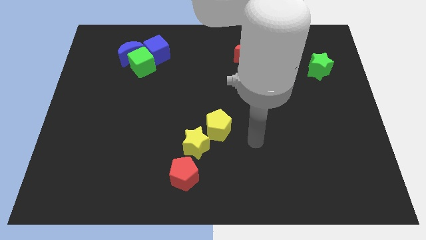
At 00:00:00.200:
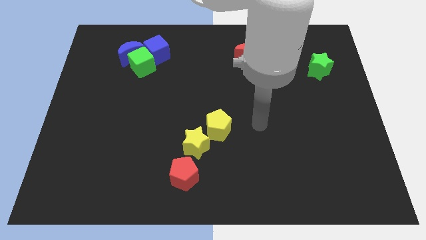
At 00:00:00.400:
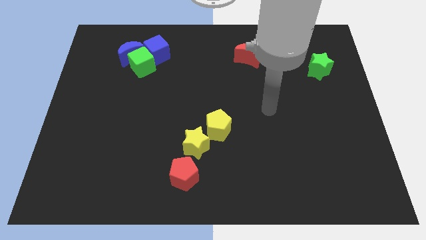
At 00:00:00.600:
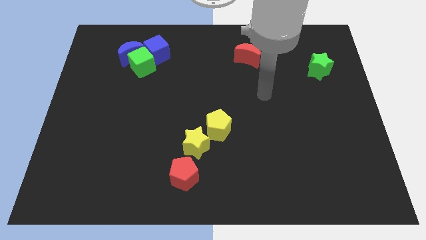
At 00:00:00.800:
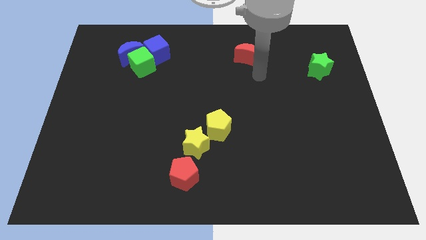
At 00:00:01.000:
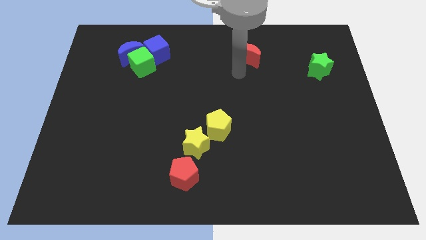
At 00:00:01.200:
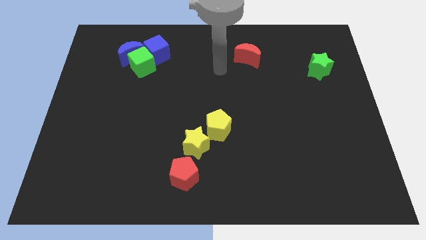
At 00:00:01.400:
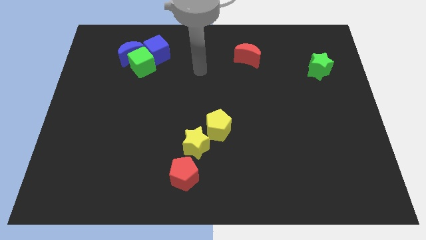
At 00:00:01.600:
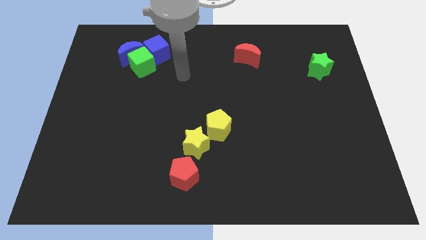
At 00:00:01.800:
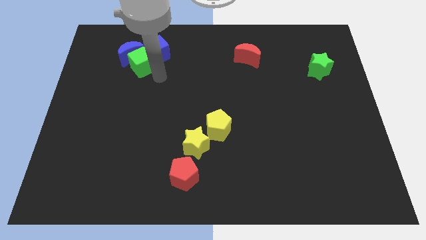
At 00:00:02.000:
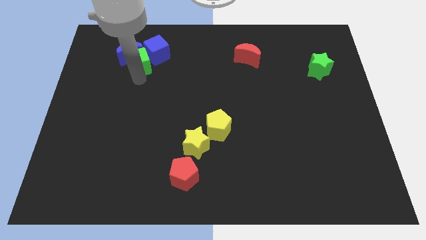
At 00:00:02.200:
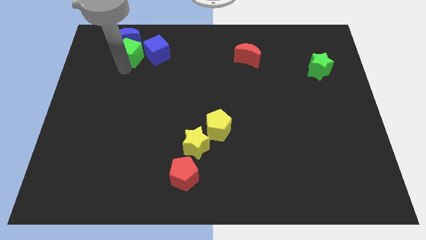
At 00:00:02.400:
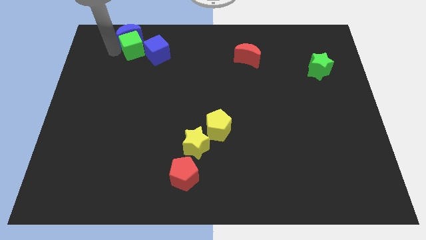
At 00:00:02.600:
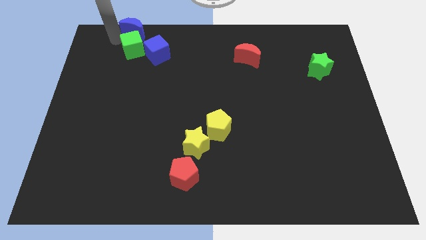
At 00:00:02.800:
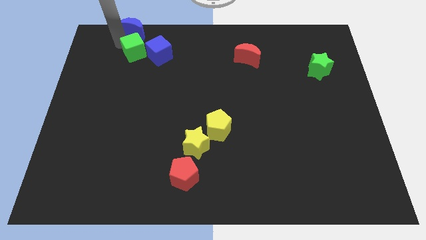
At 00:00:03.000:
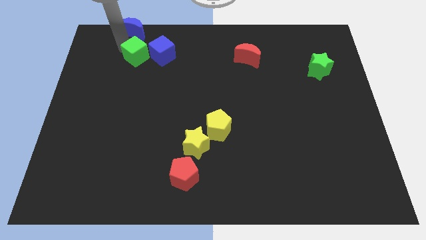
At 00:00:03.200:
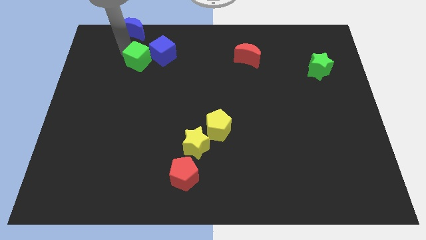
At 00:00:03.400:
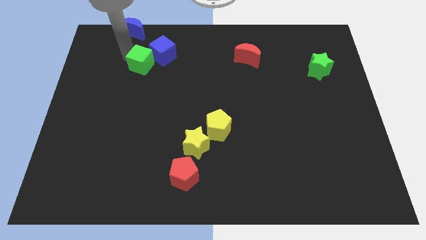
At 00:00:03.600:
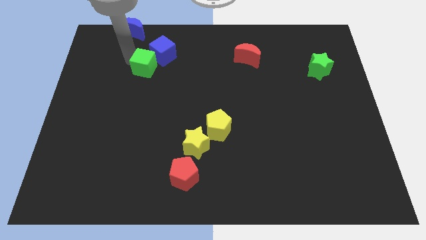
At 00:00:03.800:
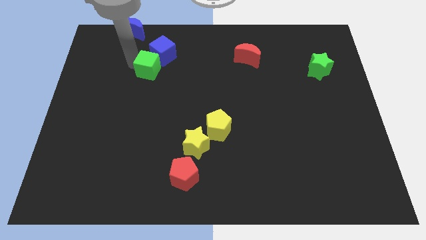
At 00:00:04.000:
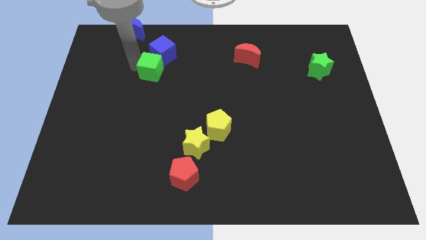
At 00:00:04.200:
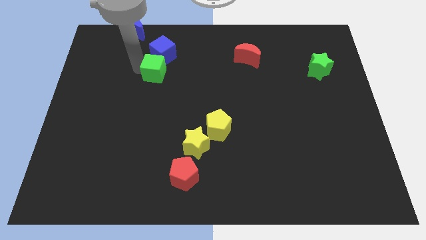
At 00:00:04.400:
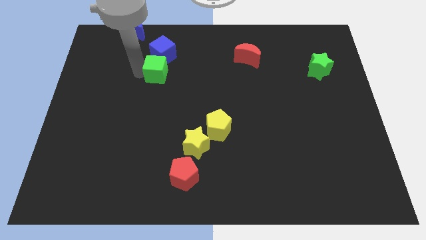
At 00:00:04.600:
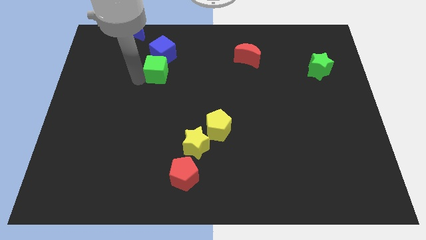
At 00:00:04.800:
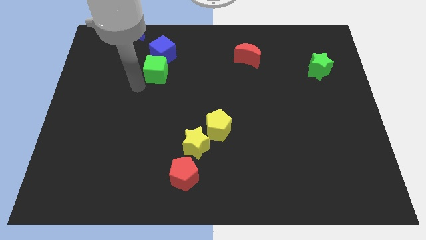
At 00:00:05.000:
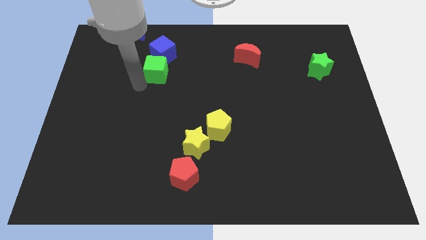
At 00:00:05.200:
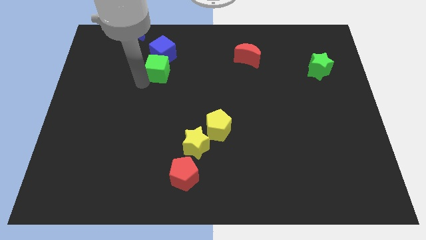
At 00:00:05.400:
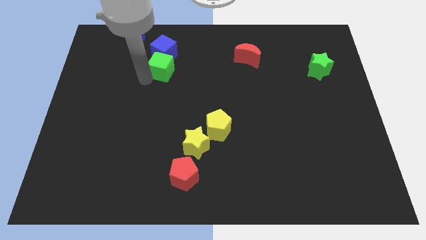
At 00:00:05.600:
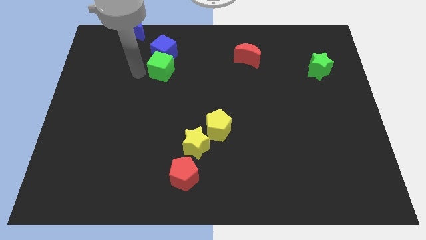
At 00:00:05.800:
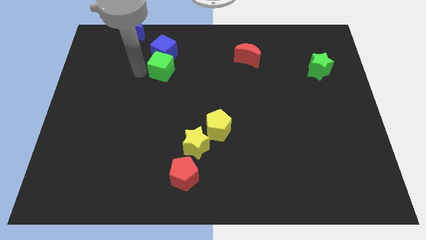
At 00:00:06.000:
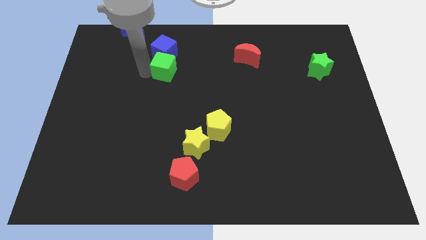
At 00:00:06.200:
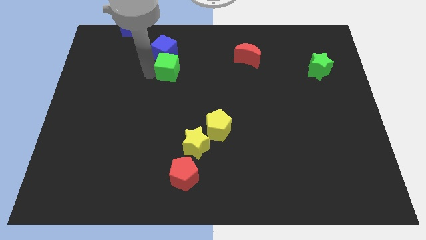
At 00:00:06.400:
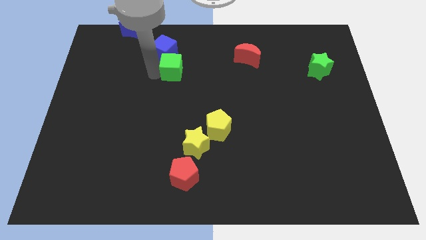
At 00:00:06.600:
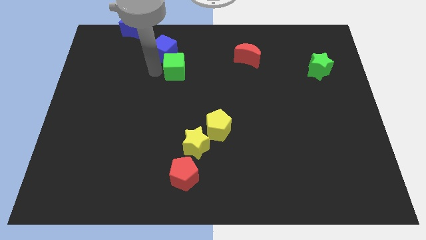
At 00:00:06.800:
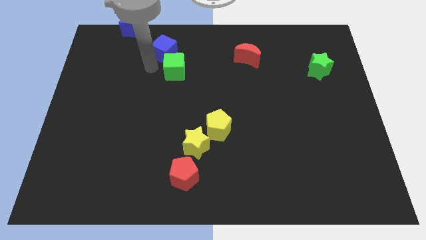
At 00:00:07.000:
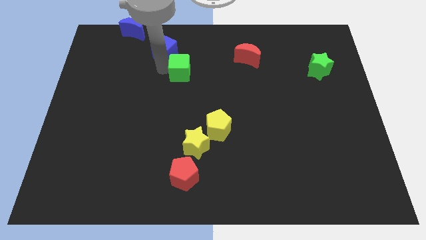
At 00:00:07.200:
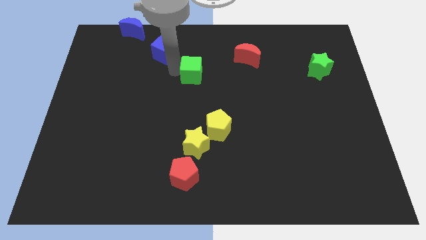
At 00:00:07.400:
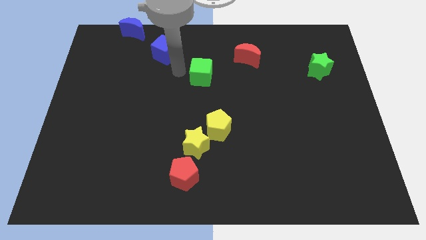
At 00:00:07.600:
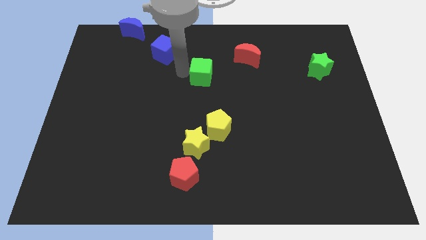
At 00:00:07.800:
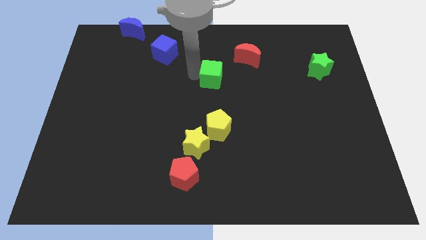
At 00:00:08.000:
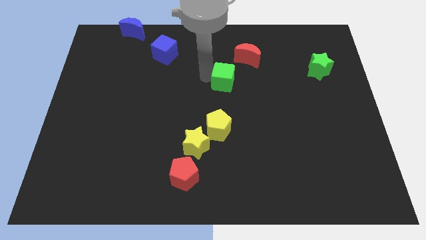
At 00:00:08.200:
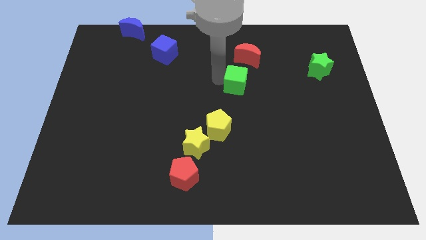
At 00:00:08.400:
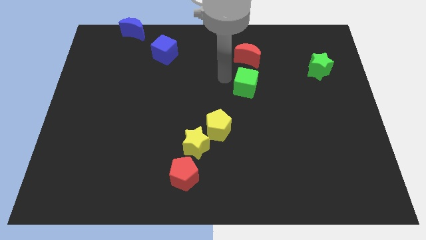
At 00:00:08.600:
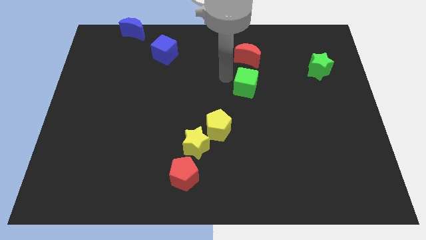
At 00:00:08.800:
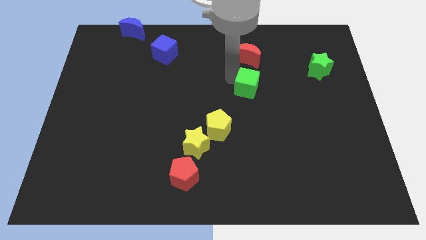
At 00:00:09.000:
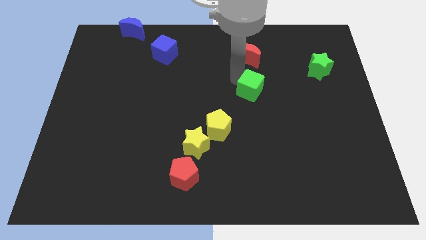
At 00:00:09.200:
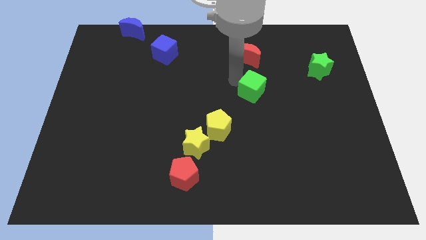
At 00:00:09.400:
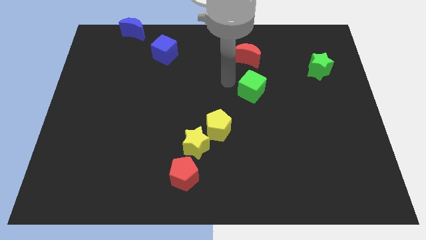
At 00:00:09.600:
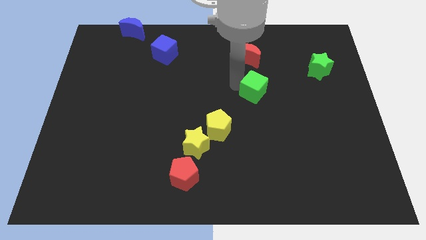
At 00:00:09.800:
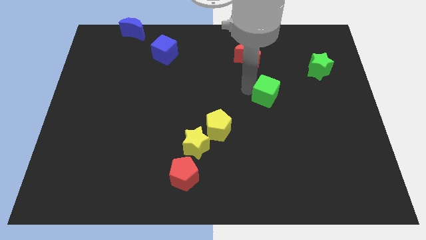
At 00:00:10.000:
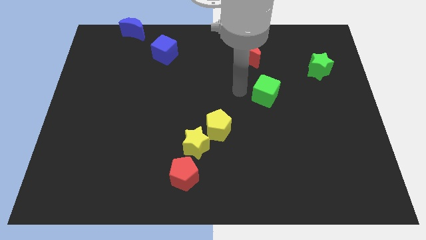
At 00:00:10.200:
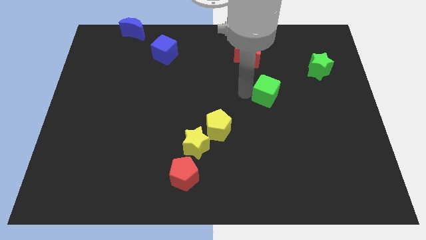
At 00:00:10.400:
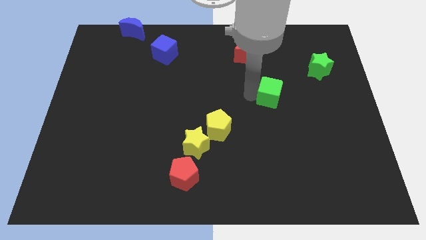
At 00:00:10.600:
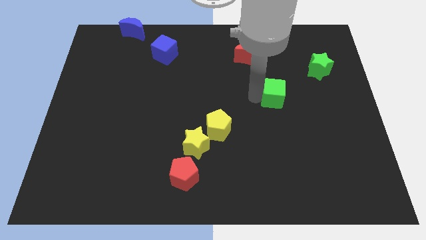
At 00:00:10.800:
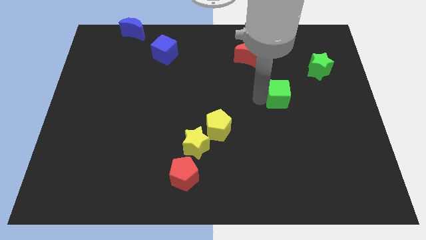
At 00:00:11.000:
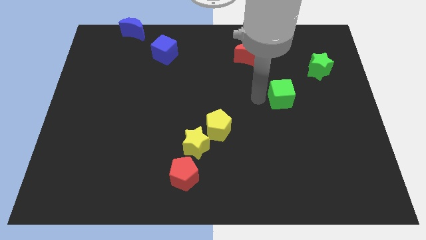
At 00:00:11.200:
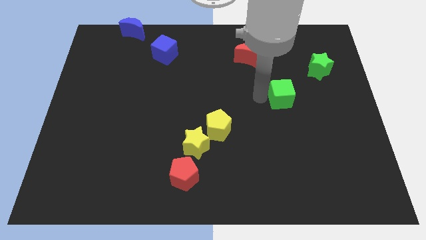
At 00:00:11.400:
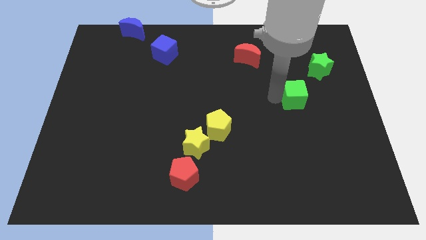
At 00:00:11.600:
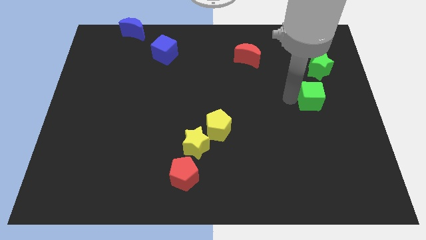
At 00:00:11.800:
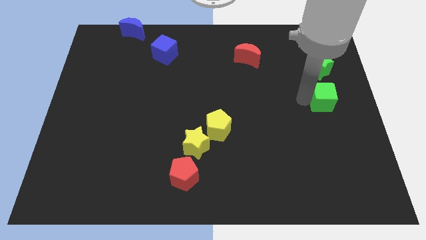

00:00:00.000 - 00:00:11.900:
slide the green cube to the center right
